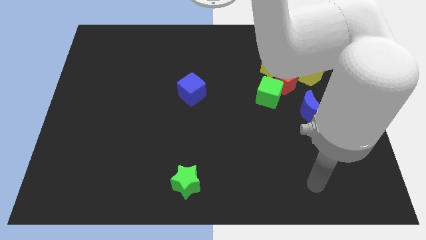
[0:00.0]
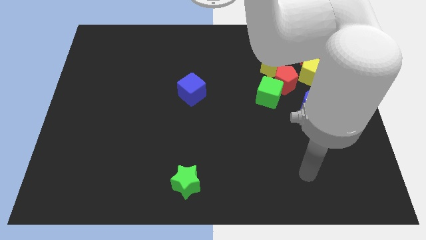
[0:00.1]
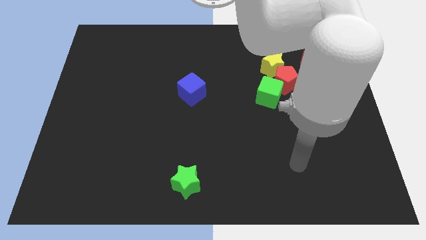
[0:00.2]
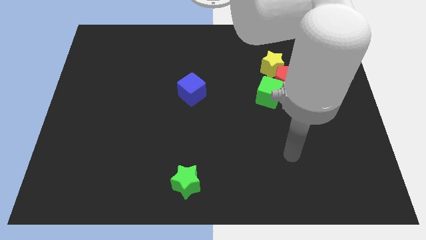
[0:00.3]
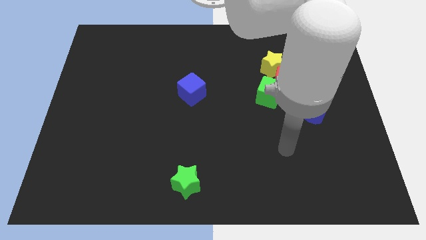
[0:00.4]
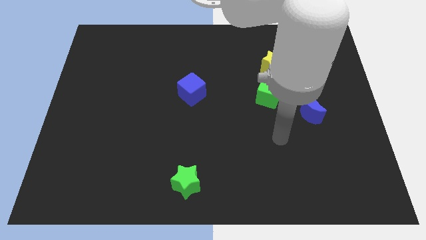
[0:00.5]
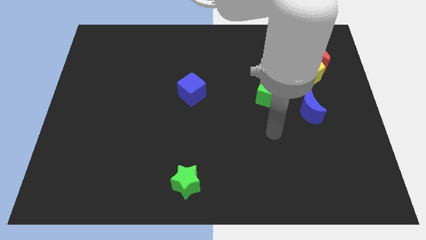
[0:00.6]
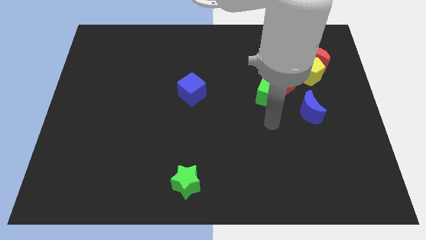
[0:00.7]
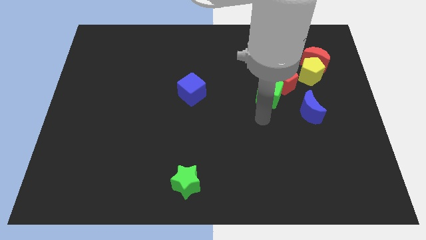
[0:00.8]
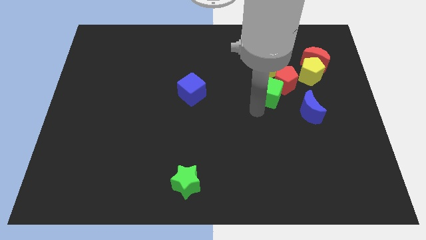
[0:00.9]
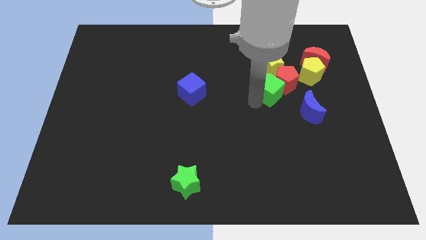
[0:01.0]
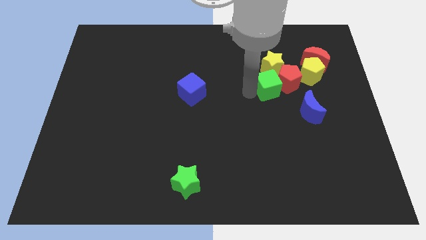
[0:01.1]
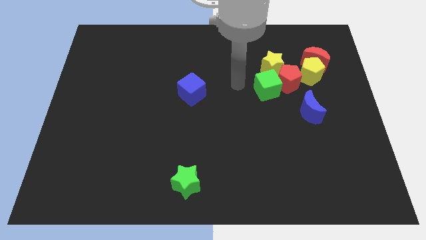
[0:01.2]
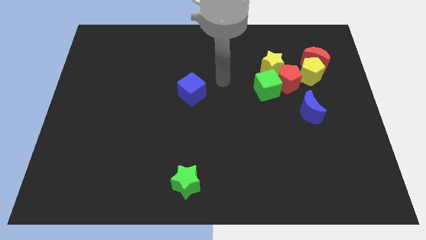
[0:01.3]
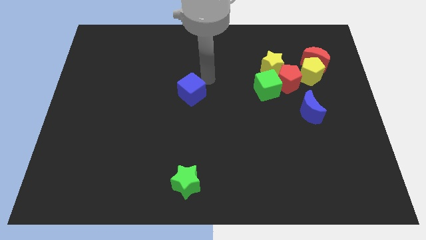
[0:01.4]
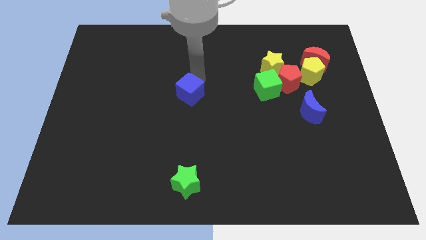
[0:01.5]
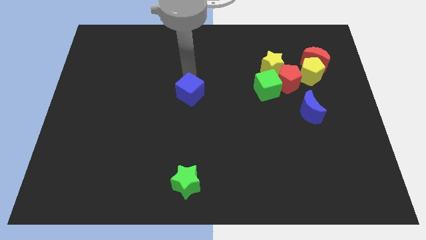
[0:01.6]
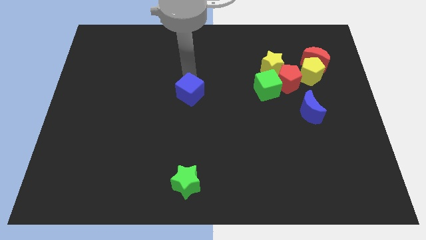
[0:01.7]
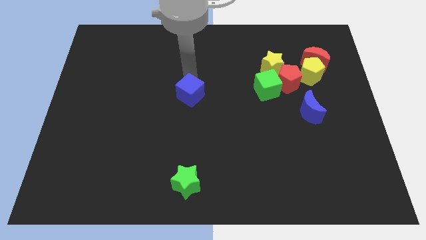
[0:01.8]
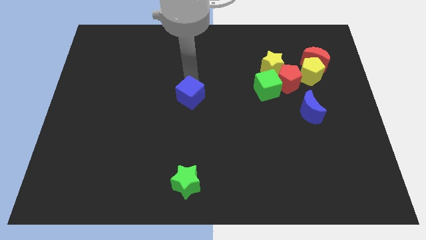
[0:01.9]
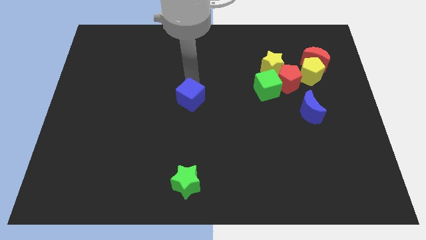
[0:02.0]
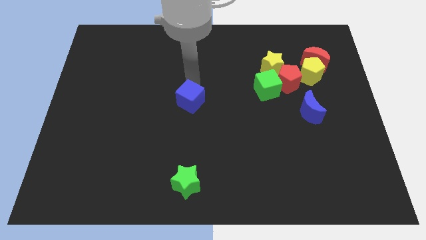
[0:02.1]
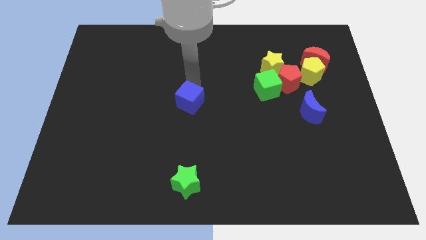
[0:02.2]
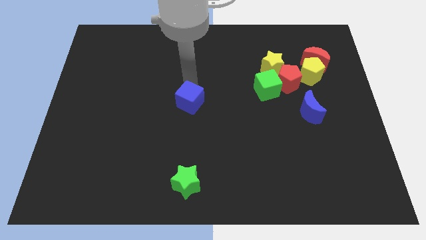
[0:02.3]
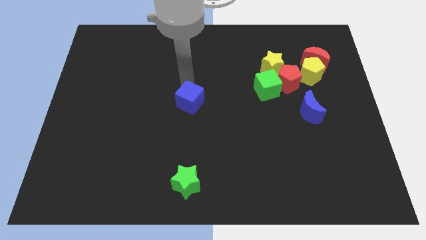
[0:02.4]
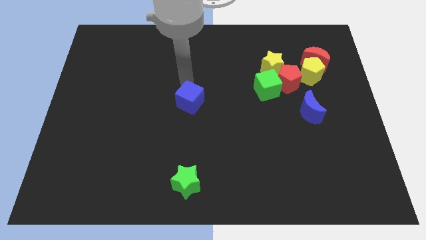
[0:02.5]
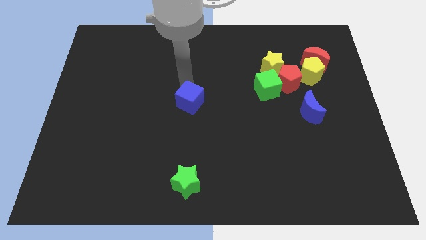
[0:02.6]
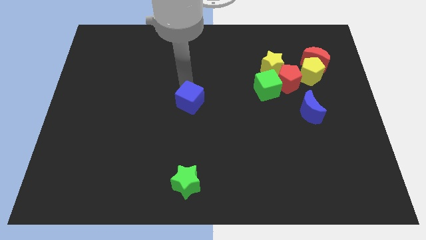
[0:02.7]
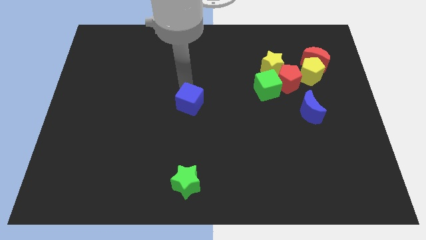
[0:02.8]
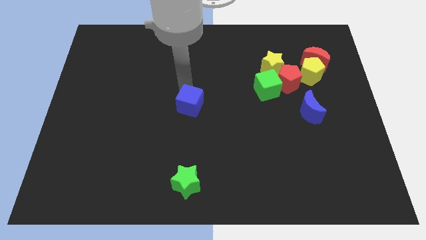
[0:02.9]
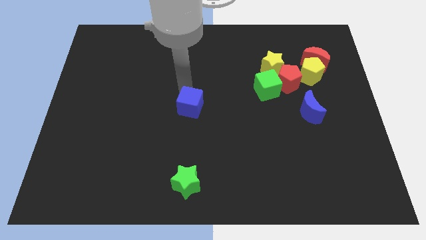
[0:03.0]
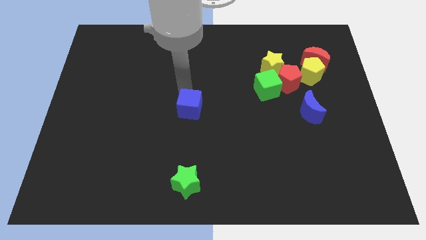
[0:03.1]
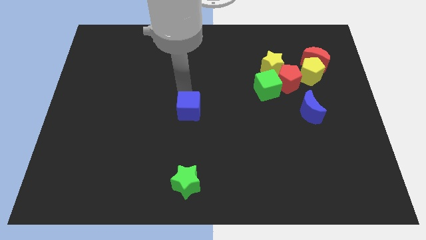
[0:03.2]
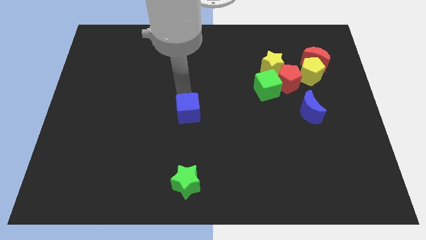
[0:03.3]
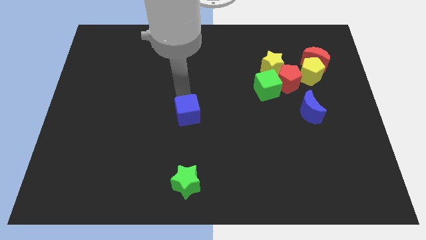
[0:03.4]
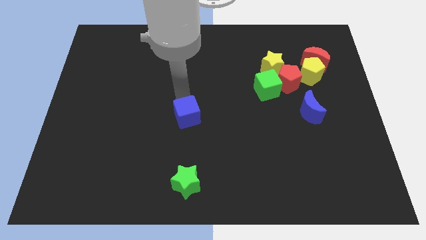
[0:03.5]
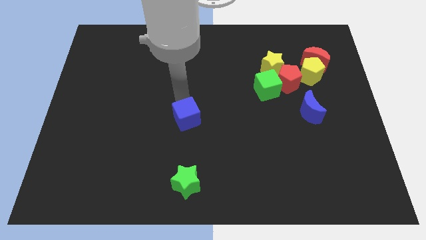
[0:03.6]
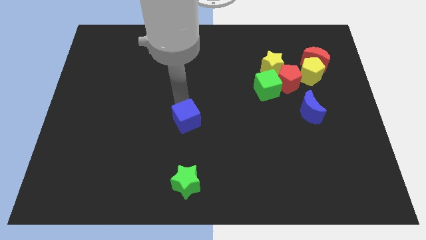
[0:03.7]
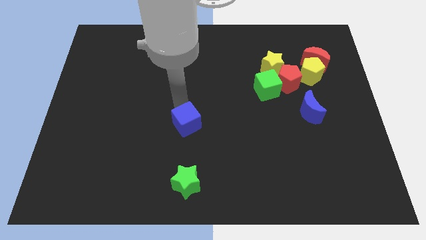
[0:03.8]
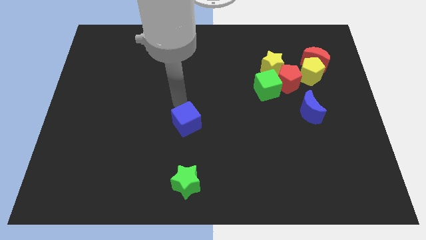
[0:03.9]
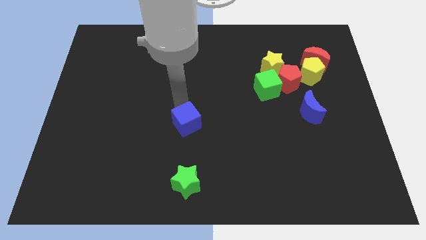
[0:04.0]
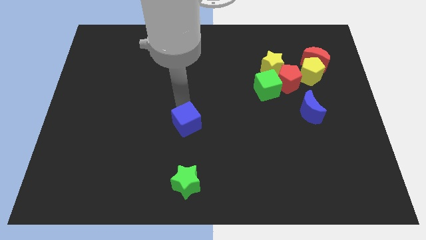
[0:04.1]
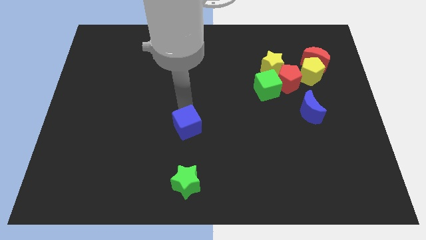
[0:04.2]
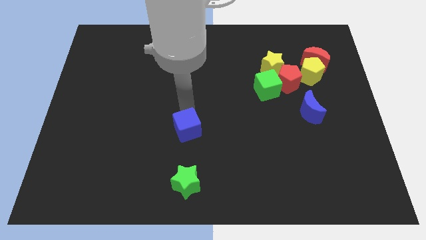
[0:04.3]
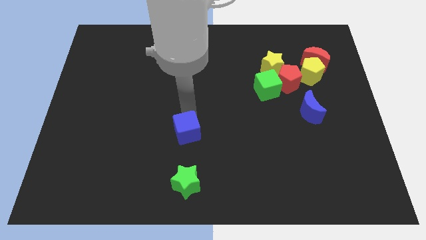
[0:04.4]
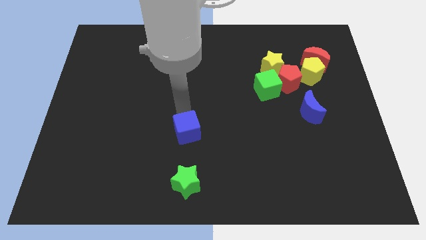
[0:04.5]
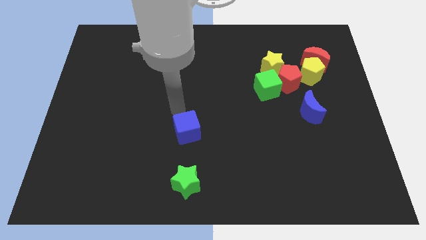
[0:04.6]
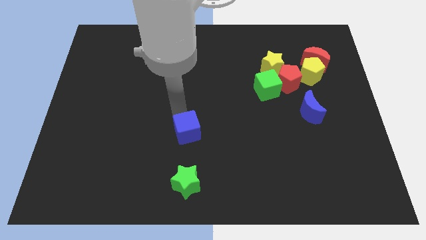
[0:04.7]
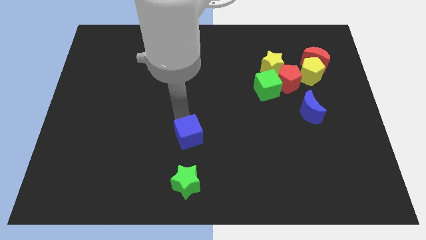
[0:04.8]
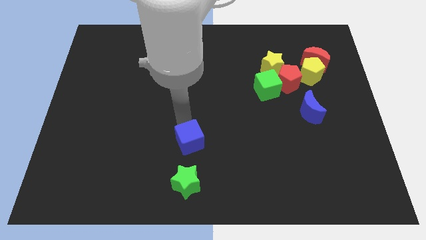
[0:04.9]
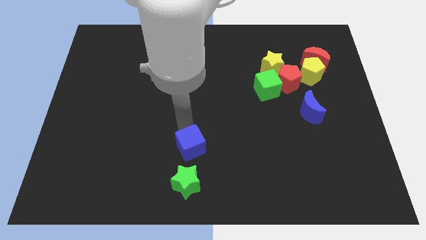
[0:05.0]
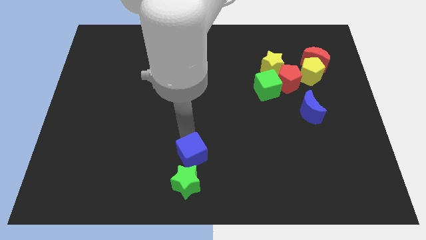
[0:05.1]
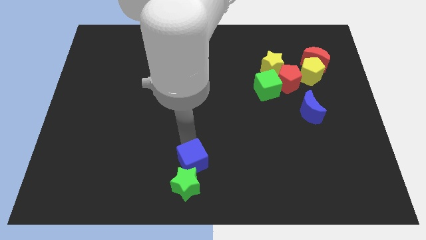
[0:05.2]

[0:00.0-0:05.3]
move the blue cube to the bottom side
